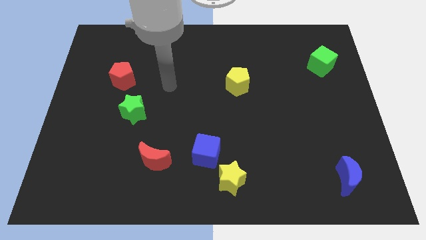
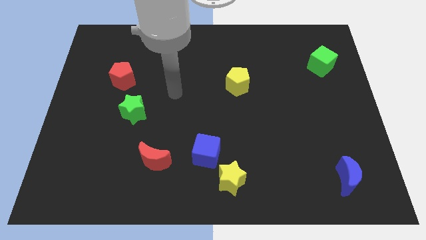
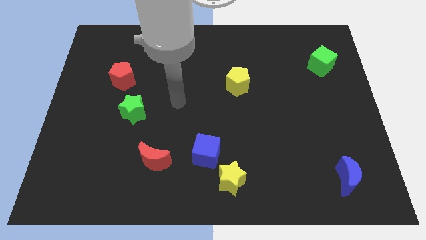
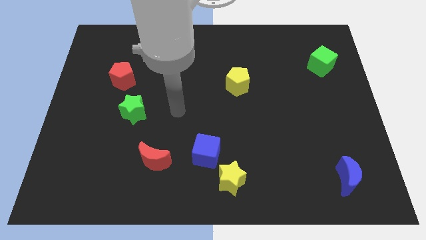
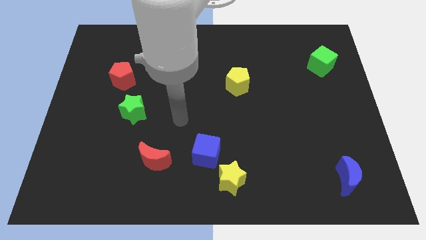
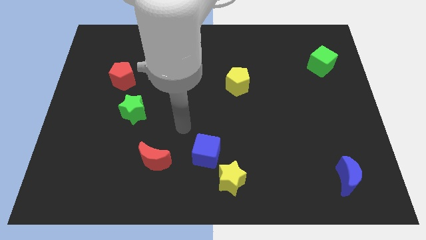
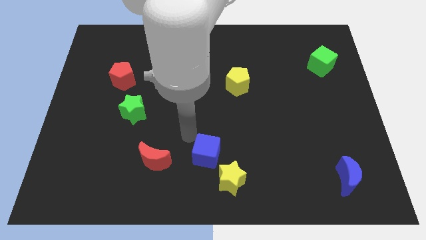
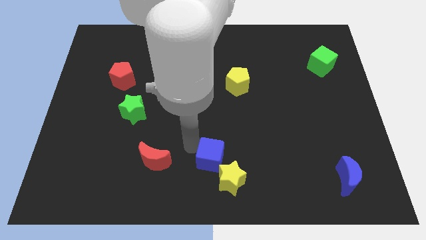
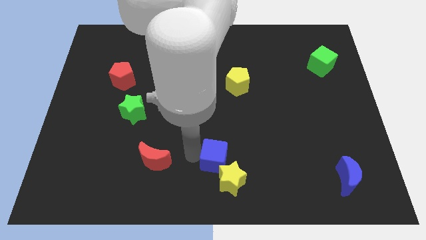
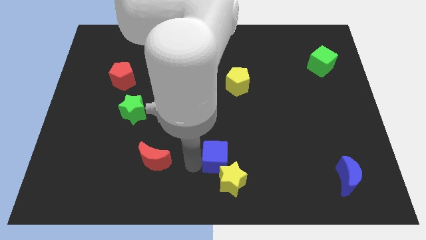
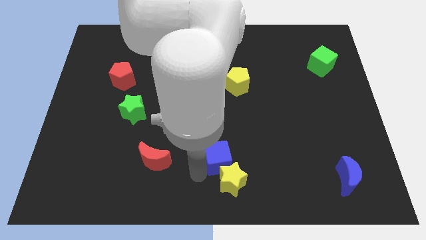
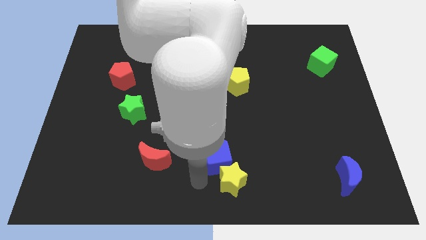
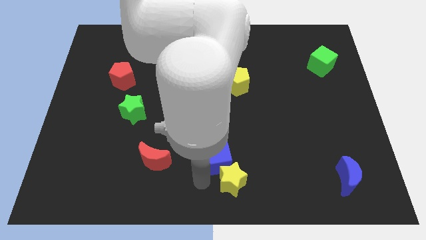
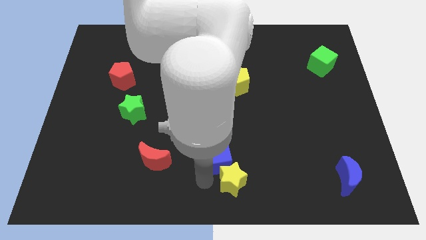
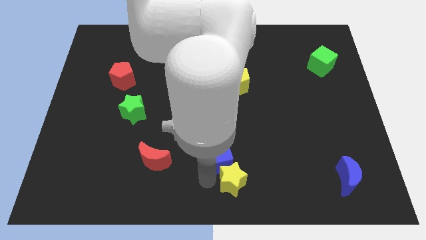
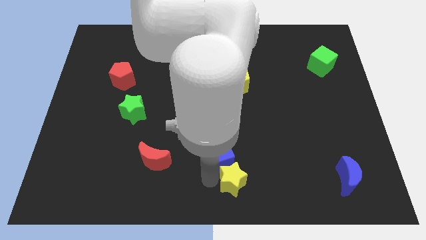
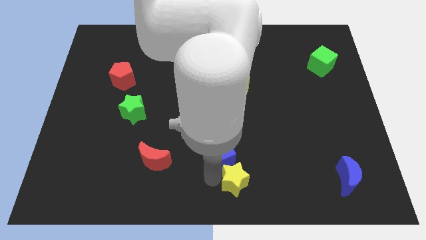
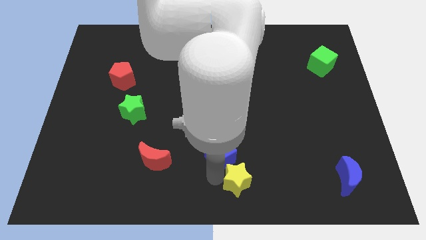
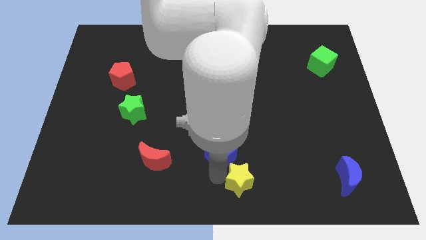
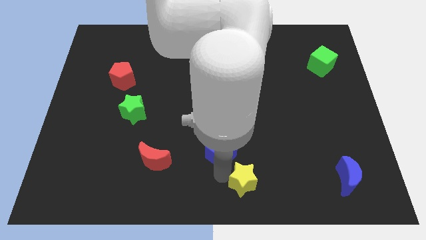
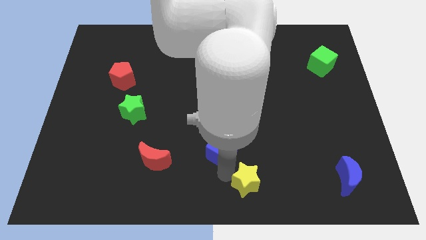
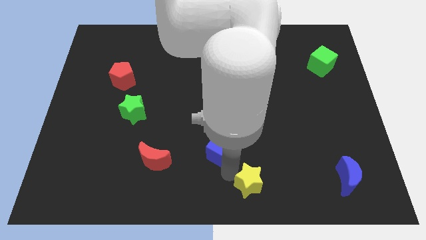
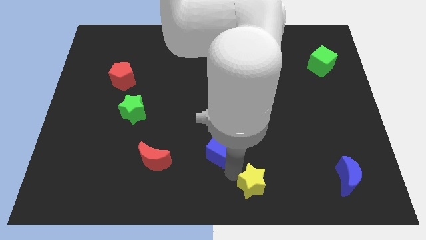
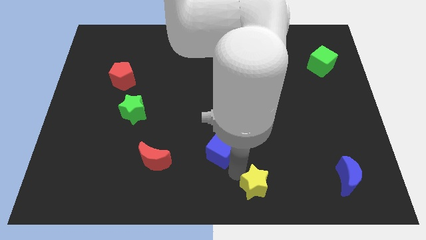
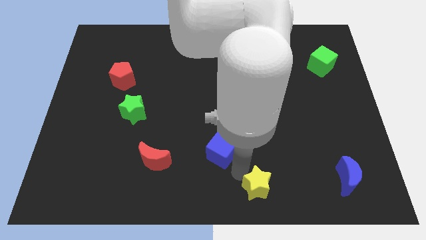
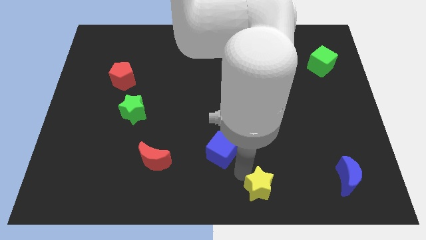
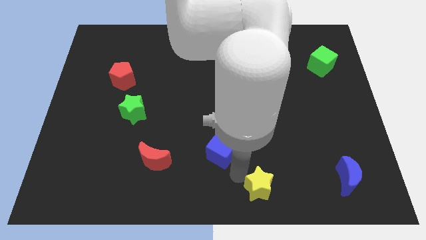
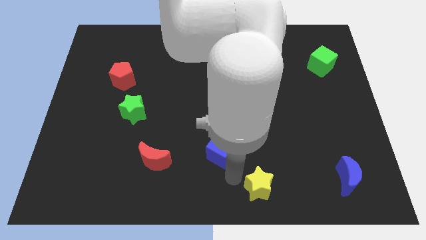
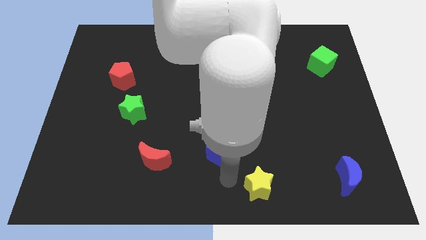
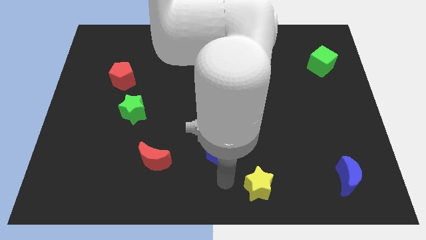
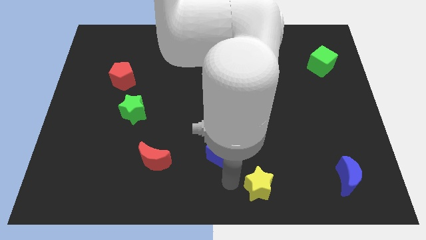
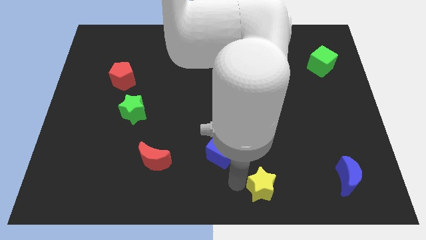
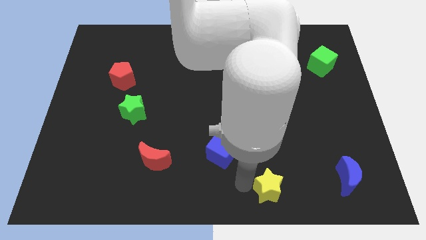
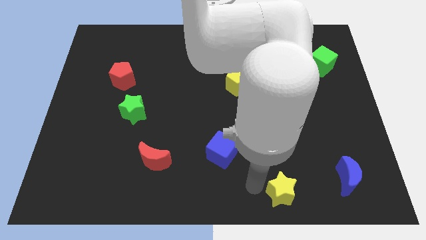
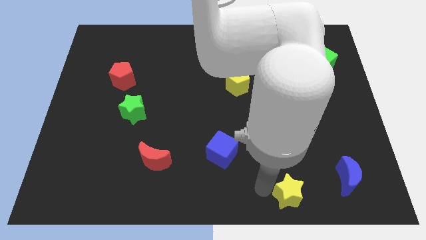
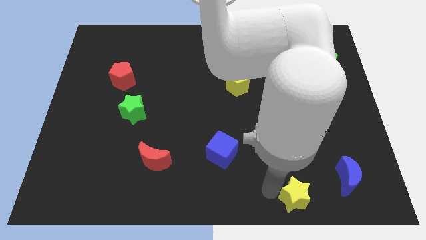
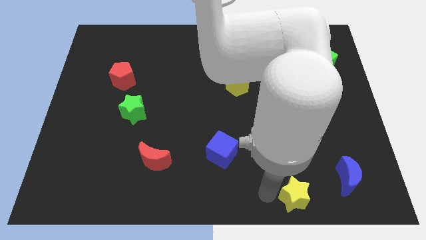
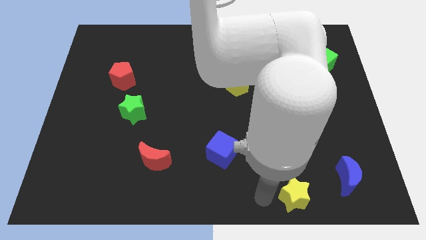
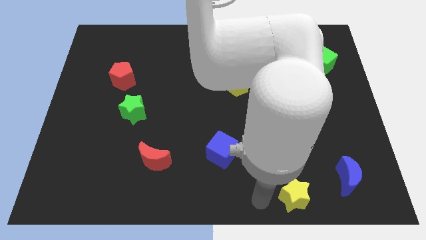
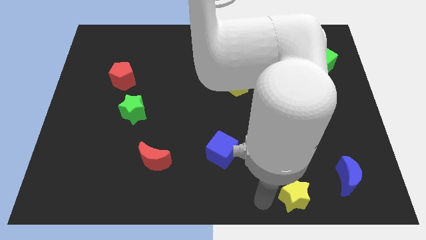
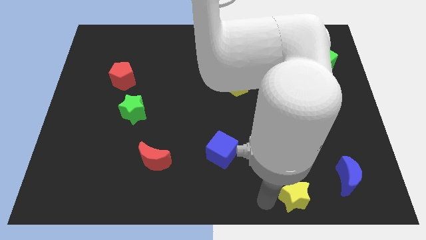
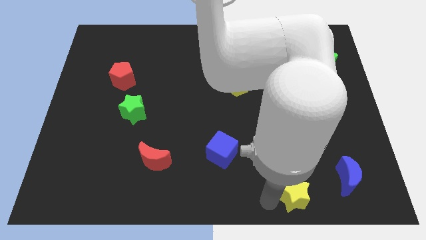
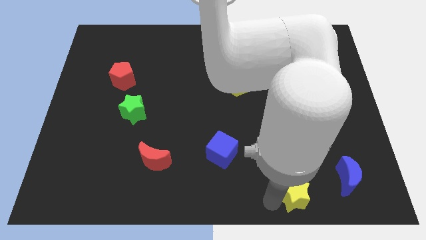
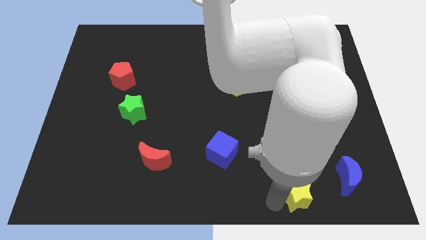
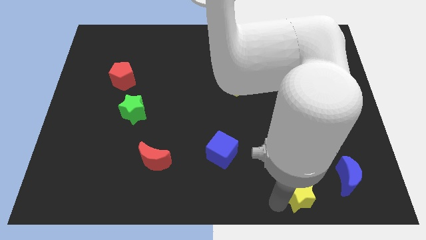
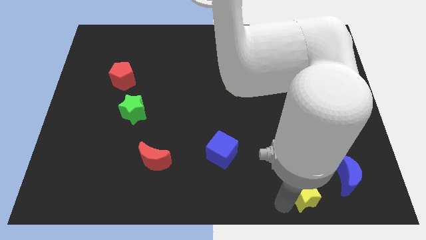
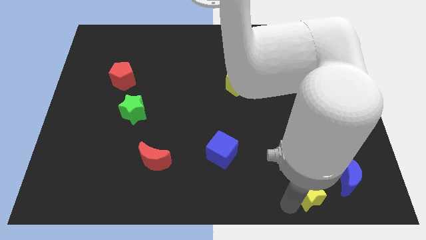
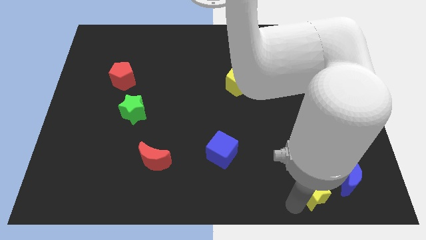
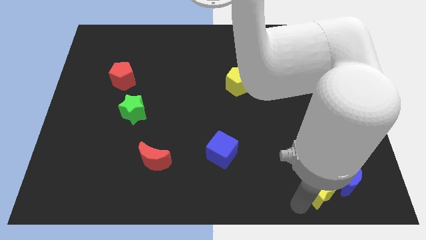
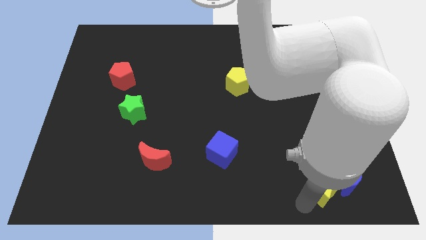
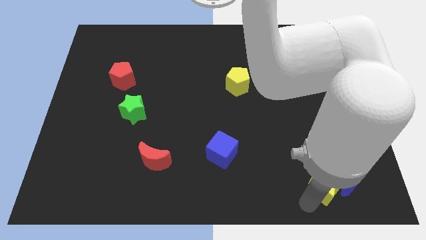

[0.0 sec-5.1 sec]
push the yellow star next to the blue moon

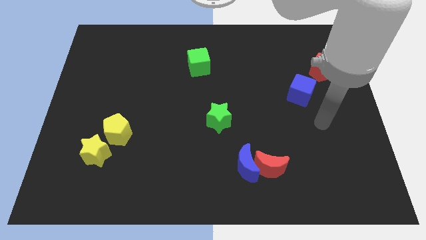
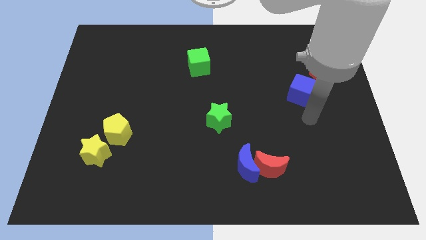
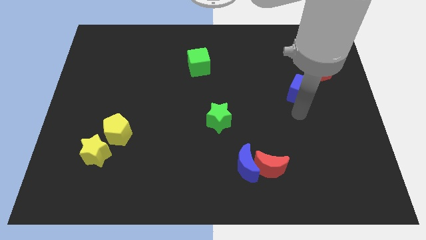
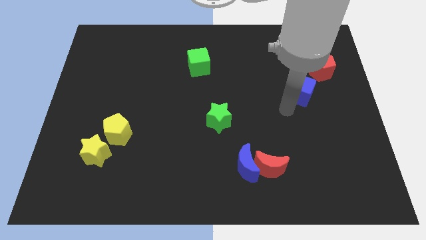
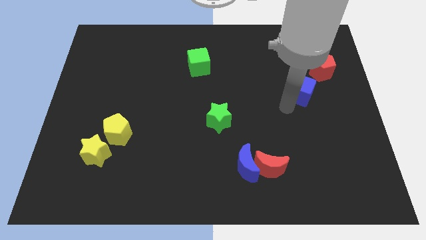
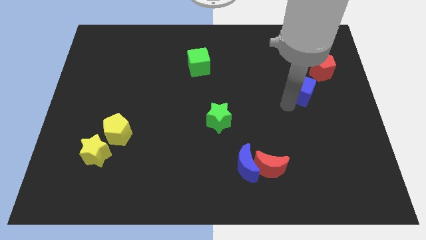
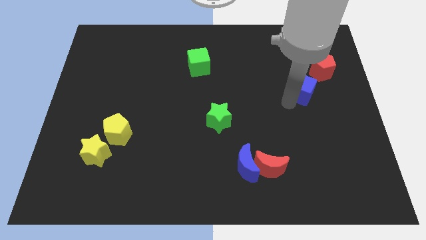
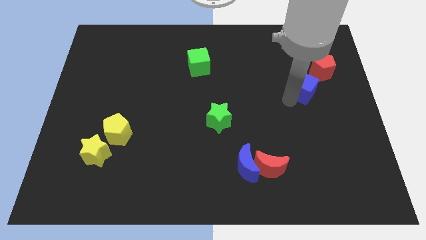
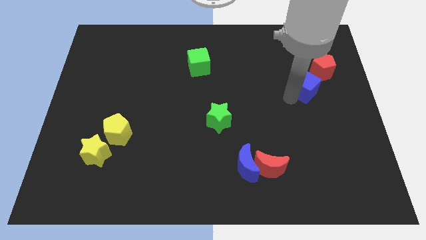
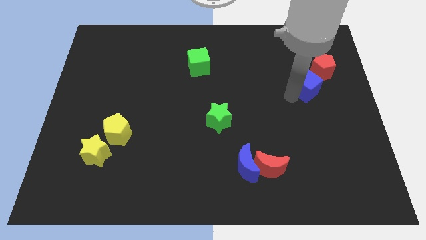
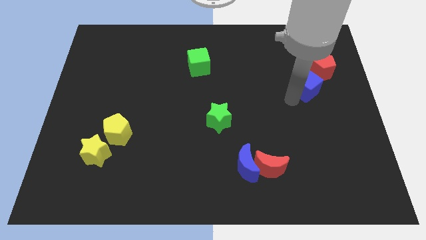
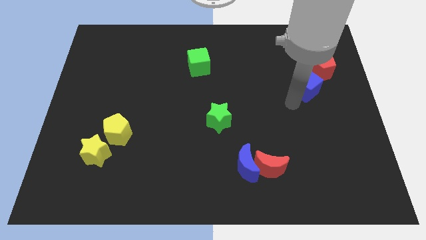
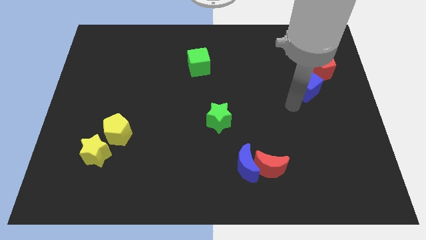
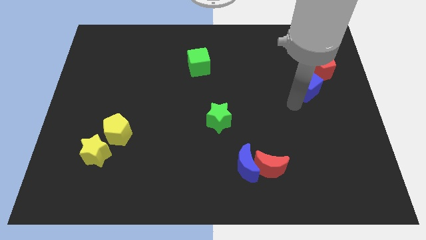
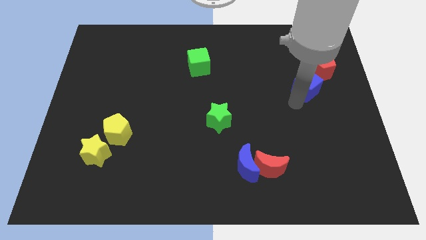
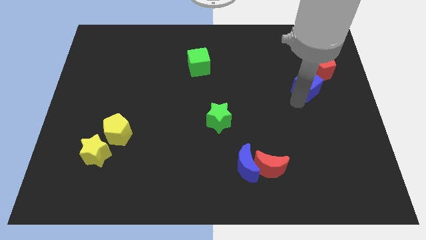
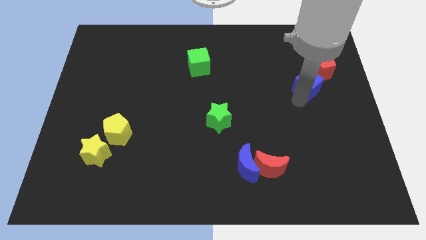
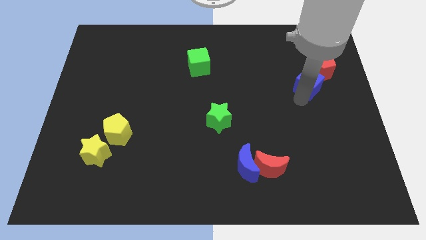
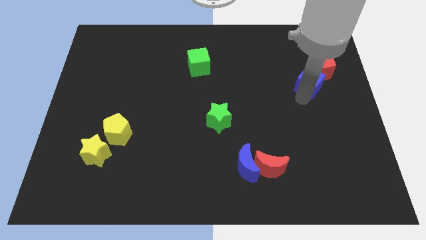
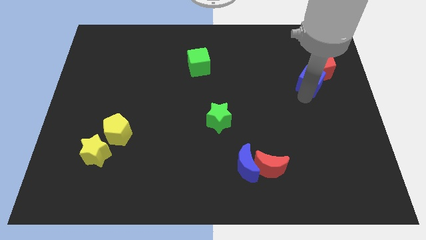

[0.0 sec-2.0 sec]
slide the blue cube towards the red pentagon

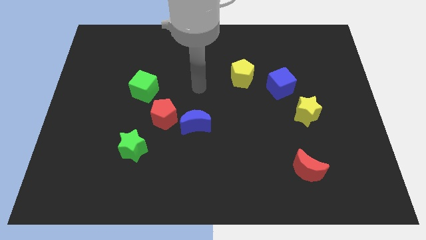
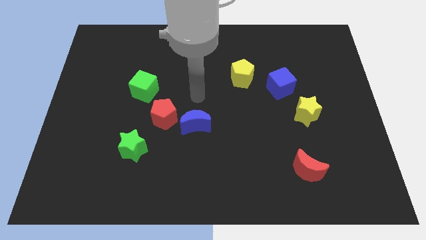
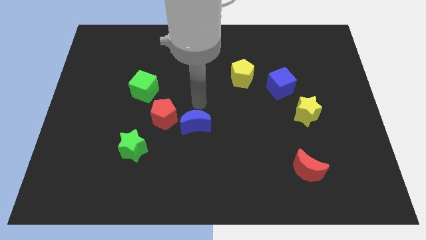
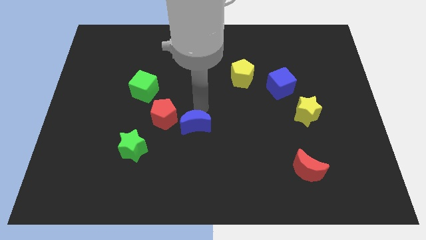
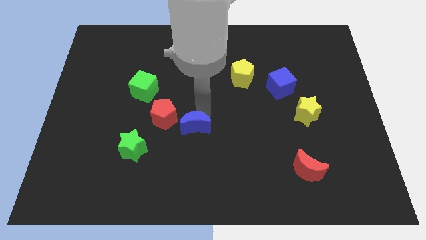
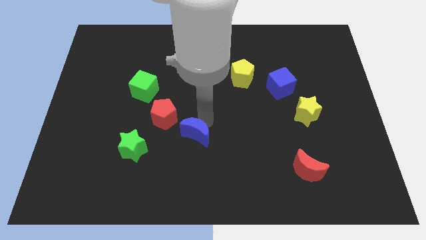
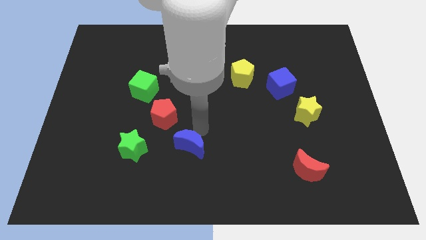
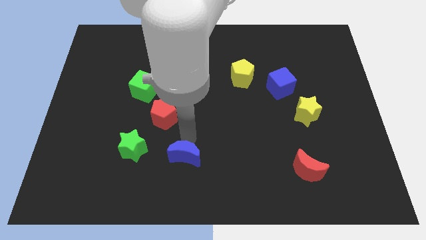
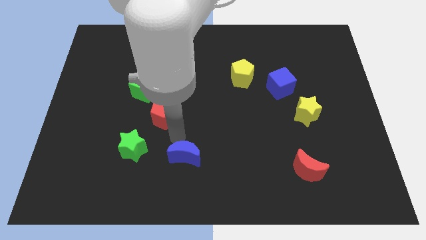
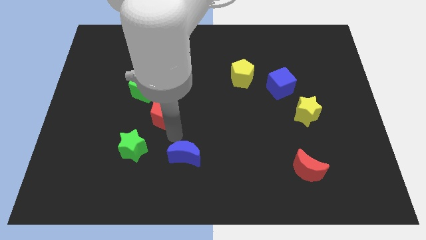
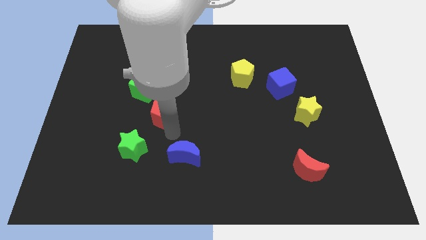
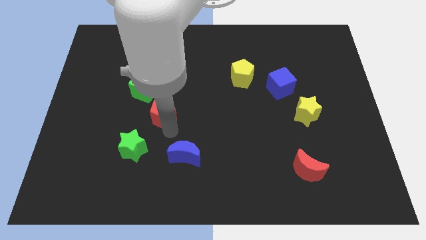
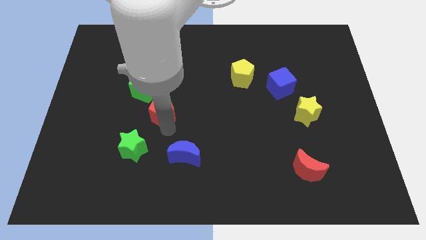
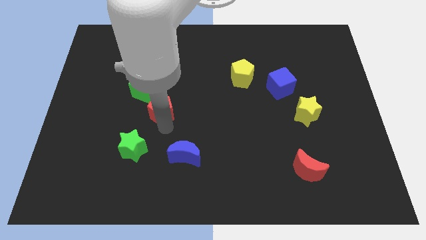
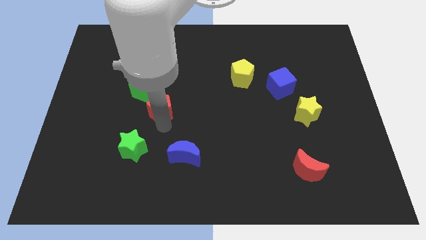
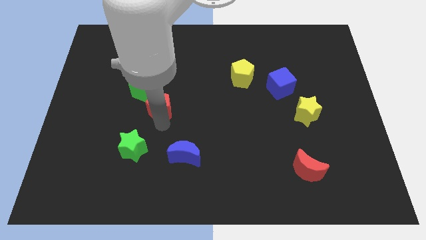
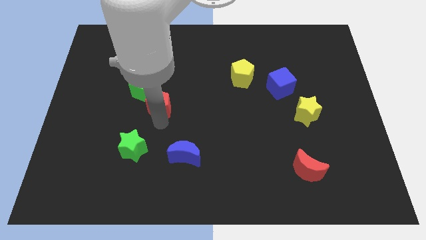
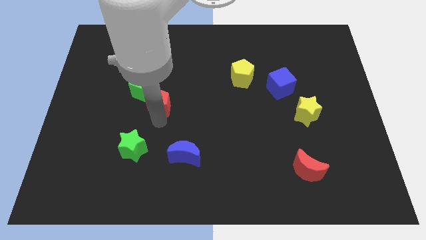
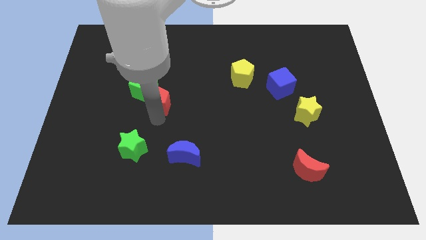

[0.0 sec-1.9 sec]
move the red pentagon close to the green cube
